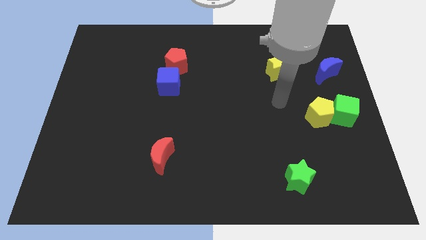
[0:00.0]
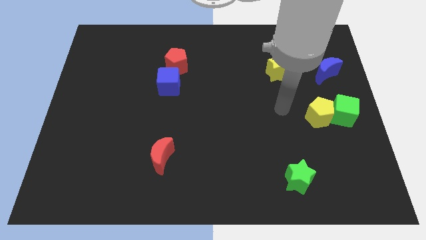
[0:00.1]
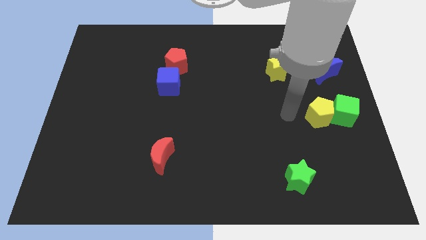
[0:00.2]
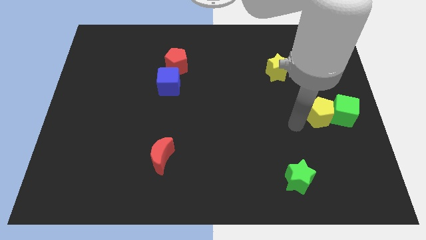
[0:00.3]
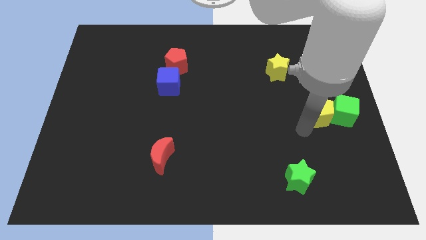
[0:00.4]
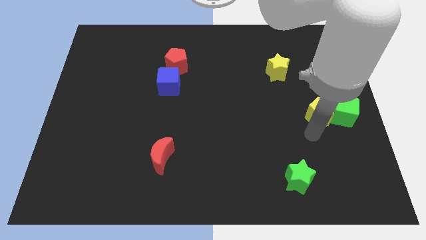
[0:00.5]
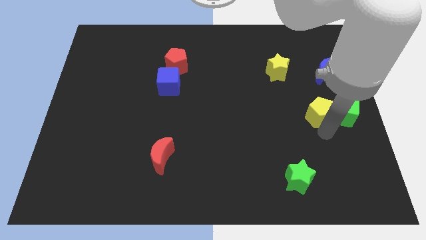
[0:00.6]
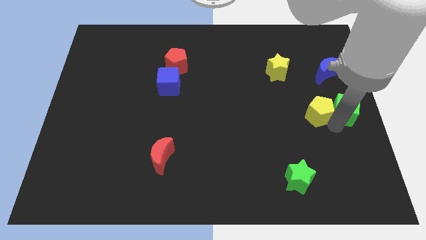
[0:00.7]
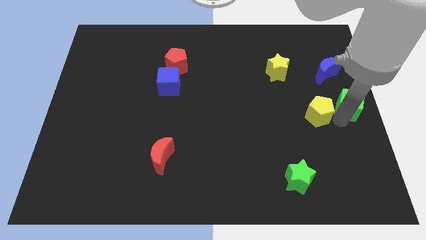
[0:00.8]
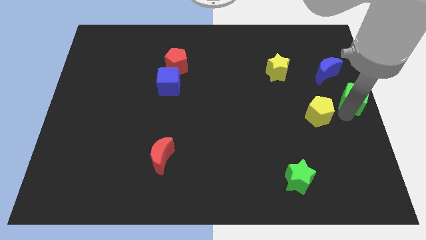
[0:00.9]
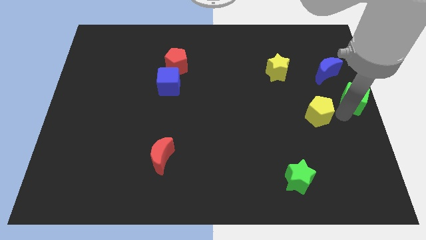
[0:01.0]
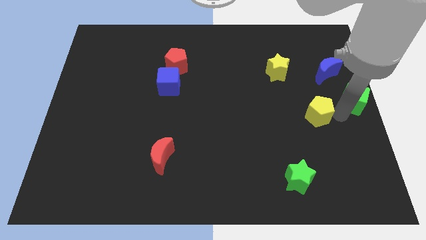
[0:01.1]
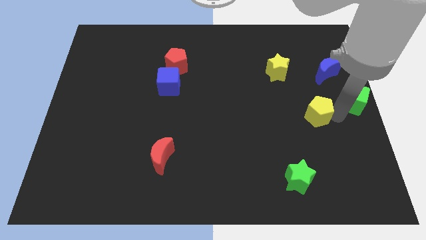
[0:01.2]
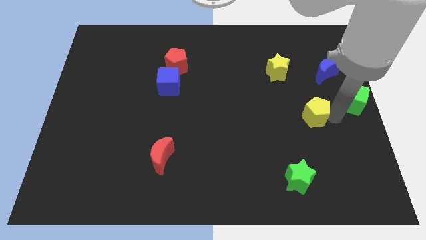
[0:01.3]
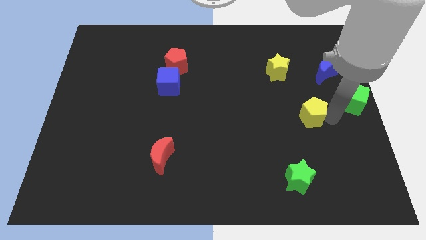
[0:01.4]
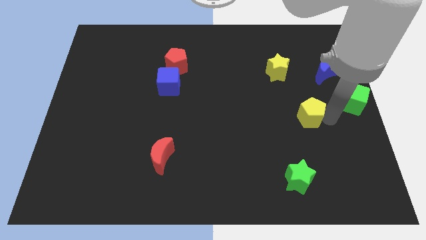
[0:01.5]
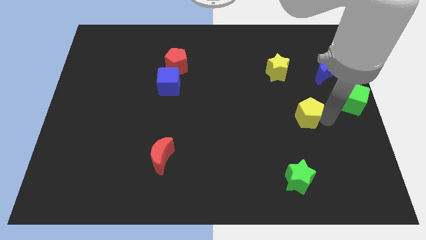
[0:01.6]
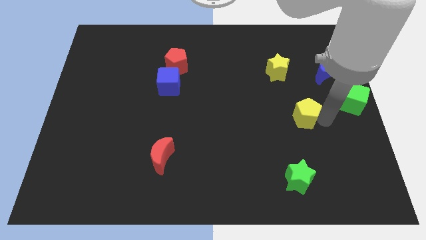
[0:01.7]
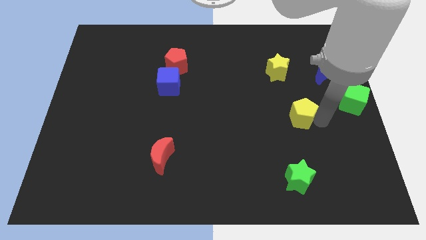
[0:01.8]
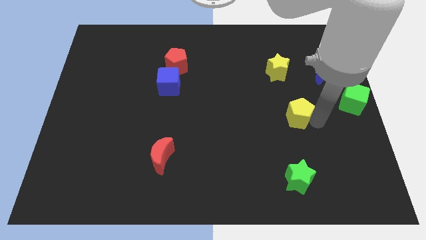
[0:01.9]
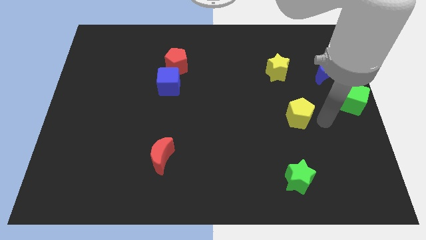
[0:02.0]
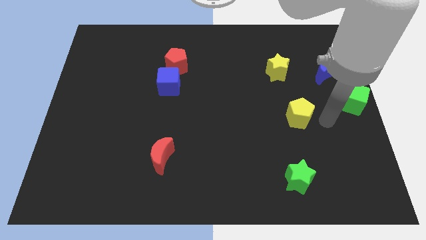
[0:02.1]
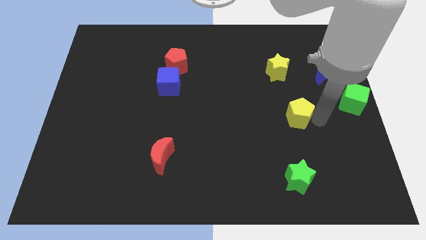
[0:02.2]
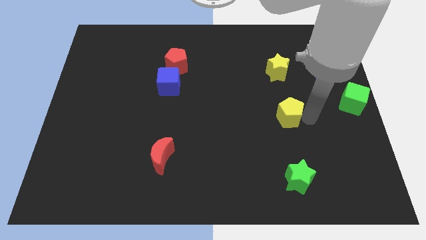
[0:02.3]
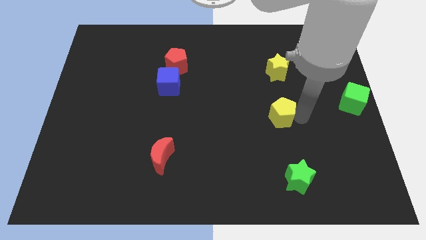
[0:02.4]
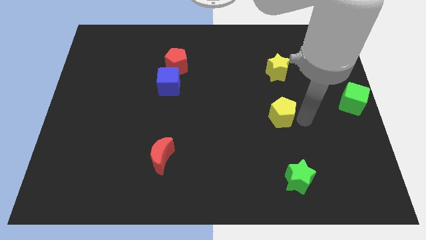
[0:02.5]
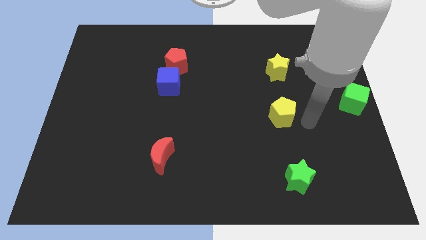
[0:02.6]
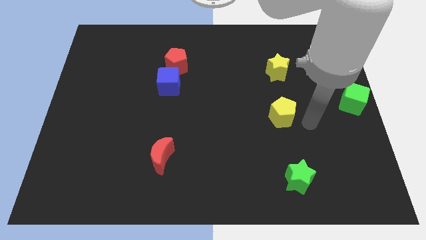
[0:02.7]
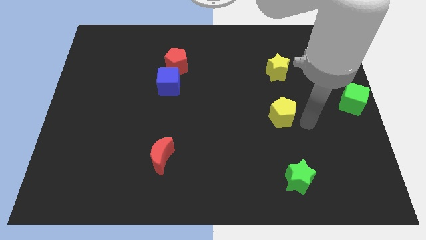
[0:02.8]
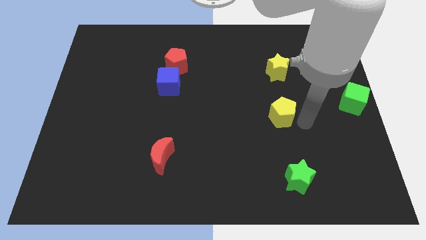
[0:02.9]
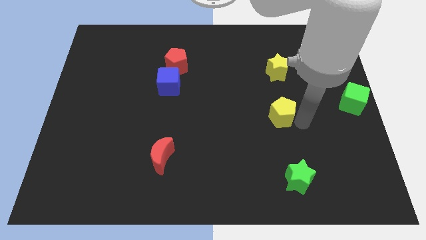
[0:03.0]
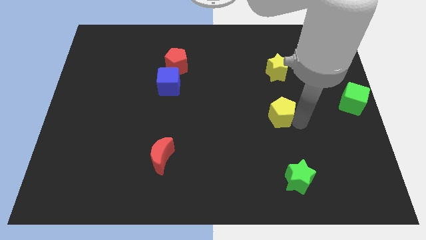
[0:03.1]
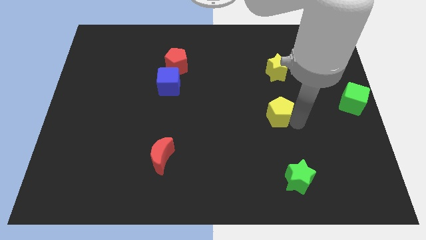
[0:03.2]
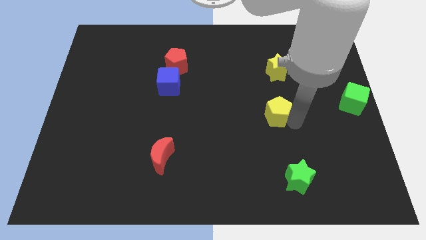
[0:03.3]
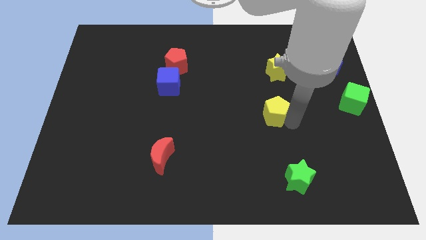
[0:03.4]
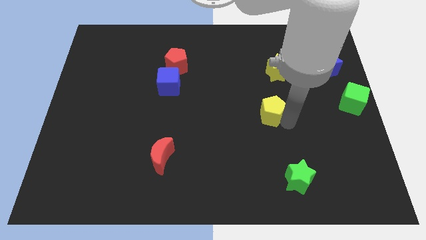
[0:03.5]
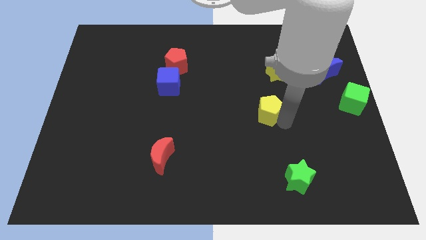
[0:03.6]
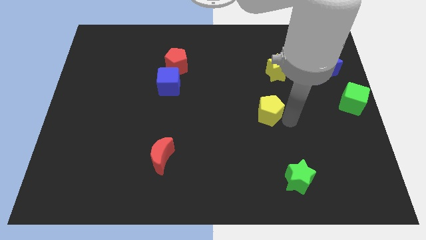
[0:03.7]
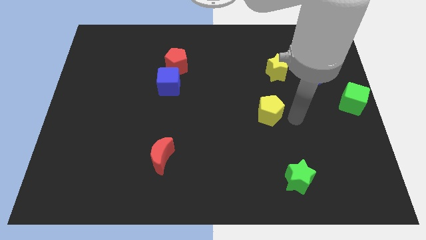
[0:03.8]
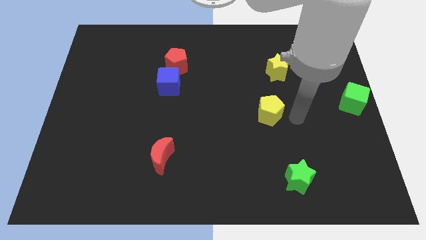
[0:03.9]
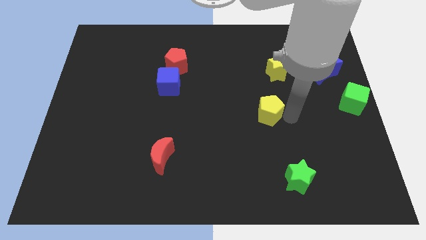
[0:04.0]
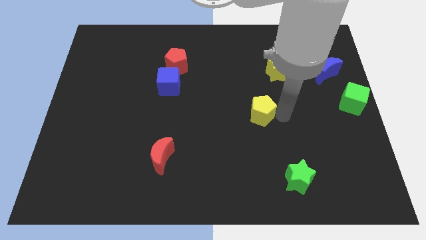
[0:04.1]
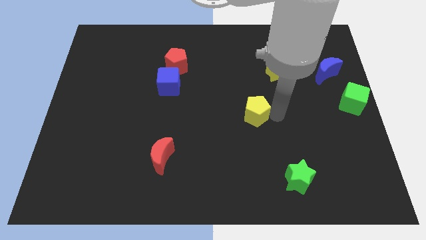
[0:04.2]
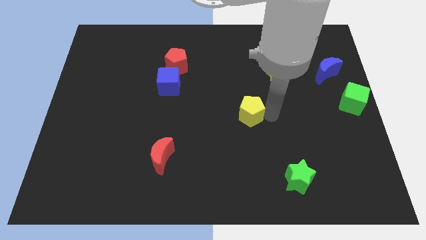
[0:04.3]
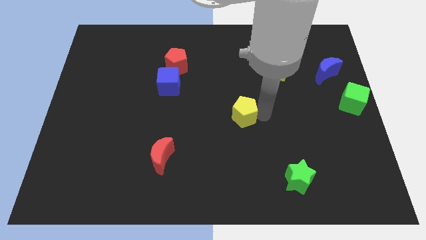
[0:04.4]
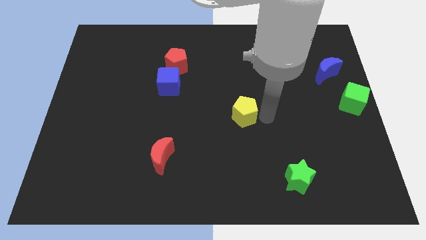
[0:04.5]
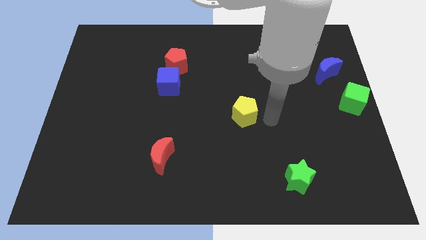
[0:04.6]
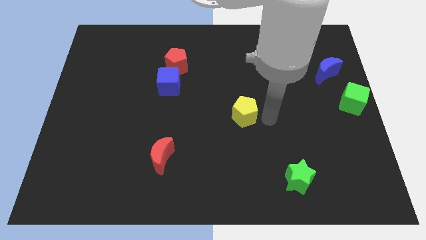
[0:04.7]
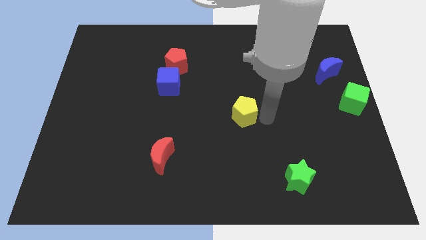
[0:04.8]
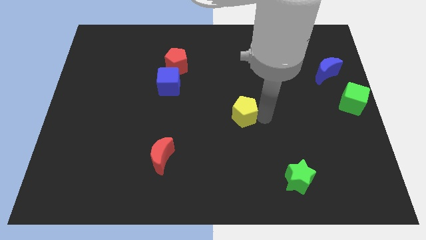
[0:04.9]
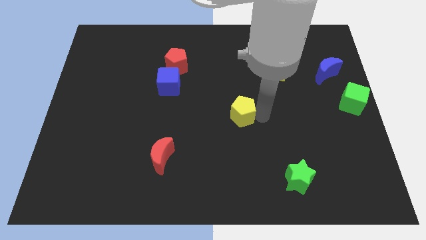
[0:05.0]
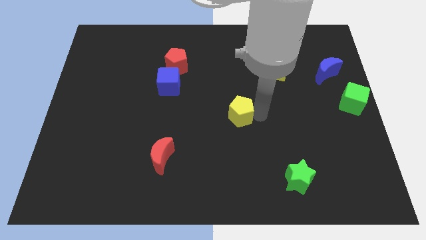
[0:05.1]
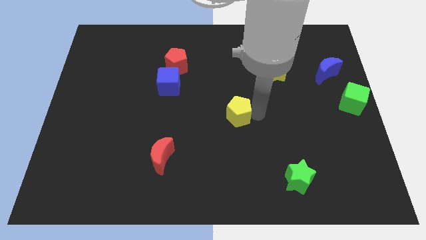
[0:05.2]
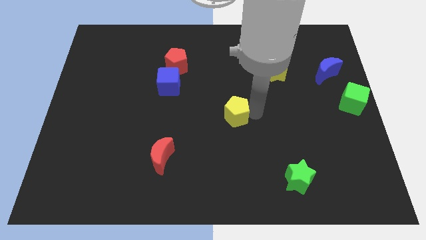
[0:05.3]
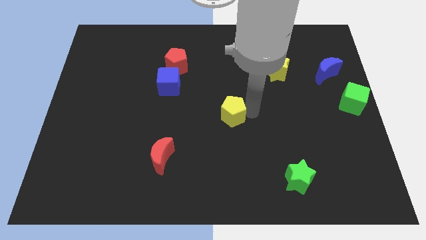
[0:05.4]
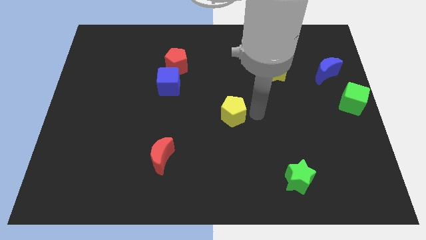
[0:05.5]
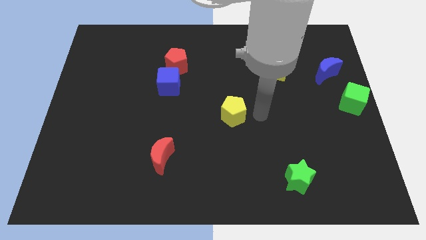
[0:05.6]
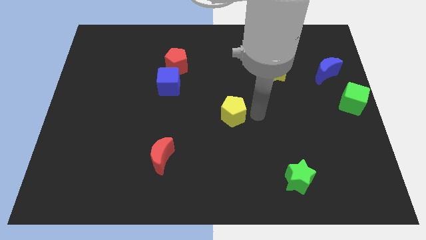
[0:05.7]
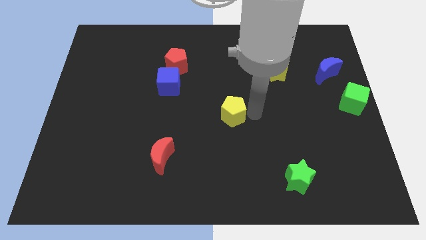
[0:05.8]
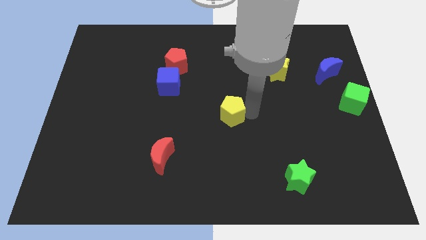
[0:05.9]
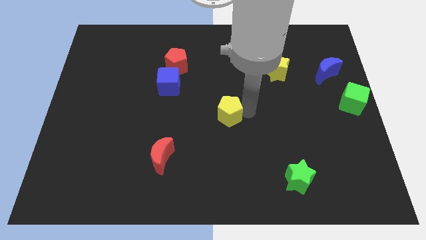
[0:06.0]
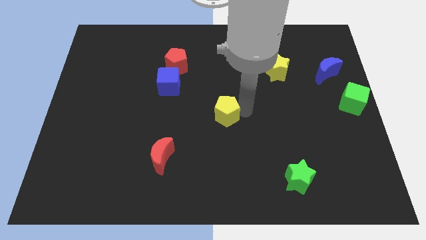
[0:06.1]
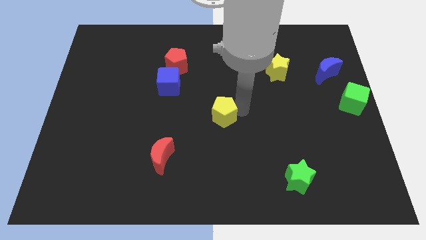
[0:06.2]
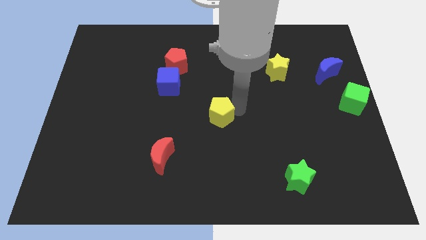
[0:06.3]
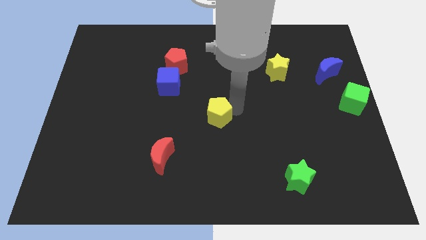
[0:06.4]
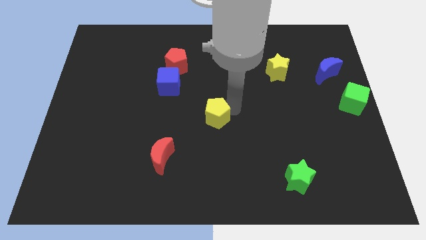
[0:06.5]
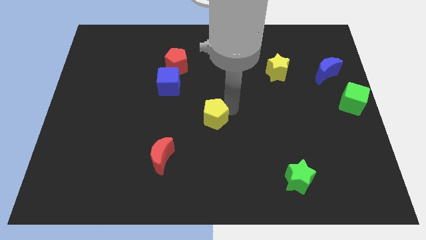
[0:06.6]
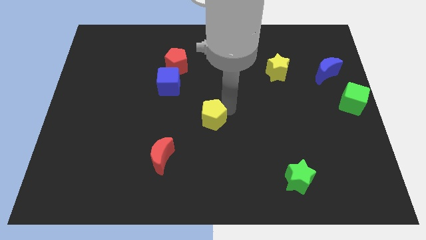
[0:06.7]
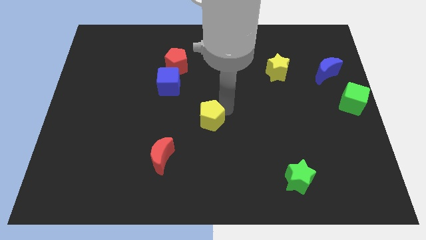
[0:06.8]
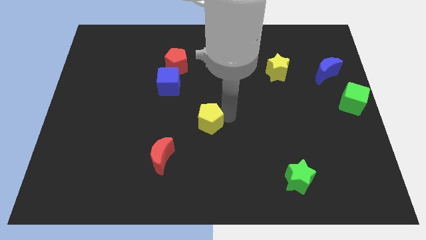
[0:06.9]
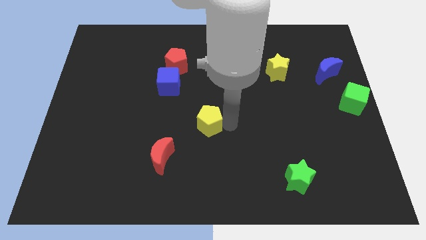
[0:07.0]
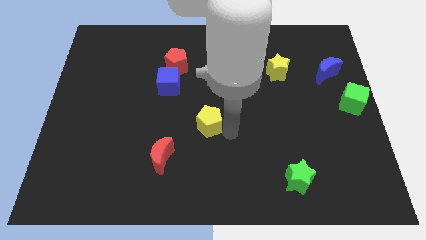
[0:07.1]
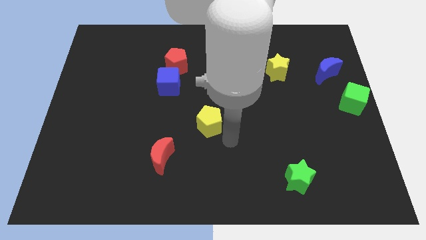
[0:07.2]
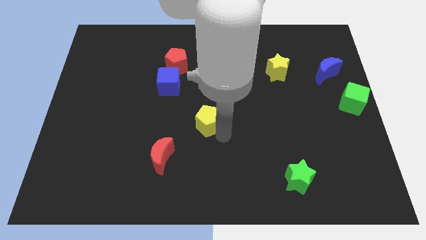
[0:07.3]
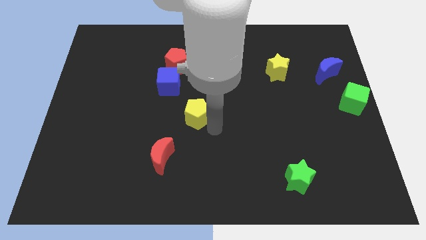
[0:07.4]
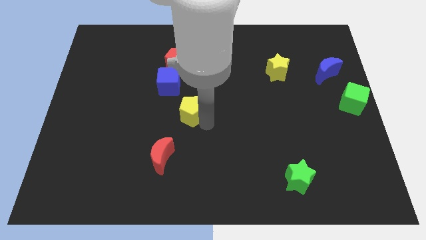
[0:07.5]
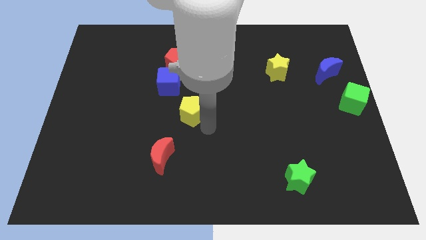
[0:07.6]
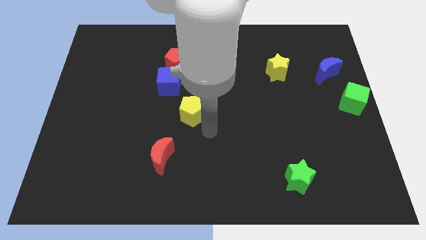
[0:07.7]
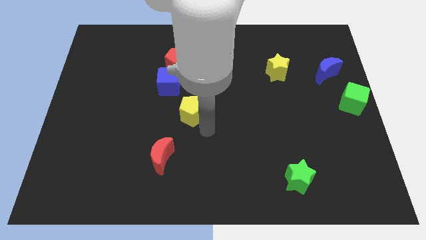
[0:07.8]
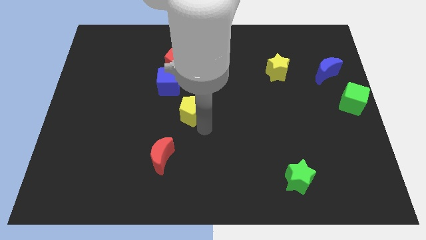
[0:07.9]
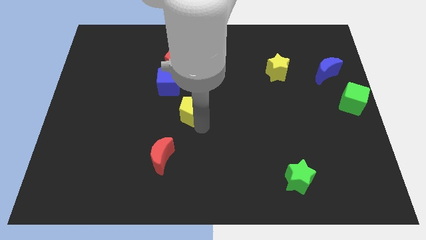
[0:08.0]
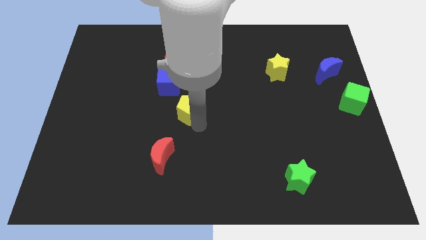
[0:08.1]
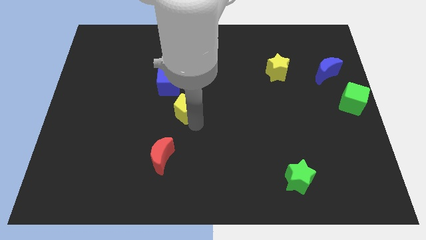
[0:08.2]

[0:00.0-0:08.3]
slide the yellow pentagon below the red pentagon
